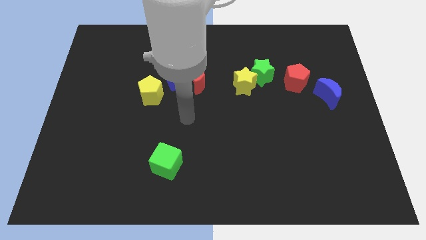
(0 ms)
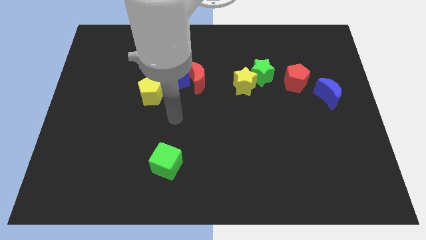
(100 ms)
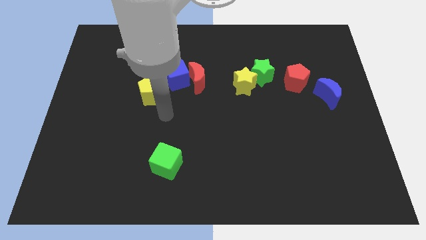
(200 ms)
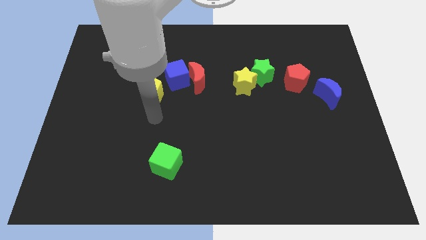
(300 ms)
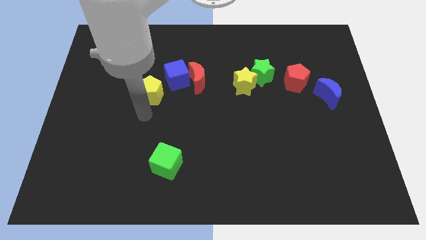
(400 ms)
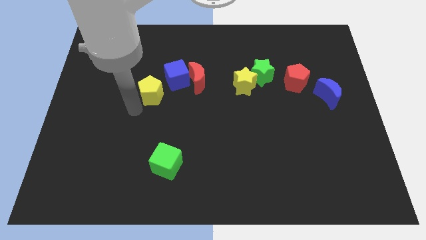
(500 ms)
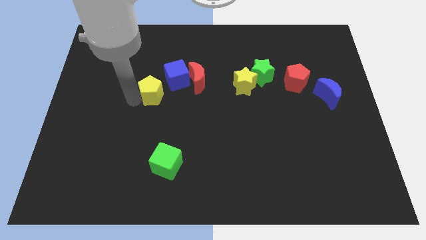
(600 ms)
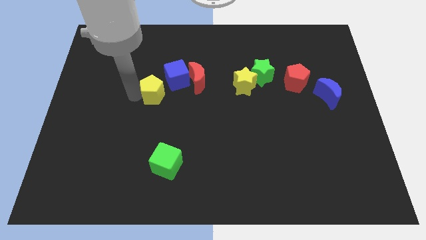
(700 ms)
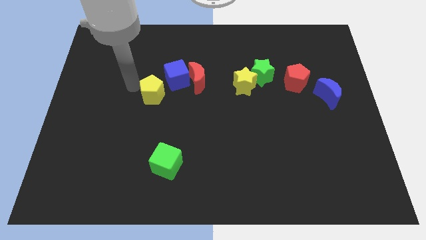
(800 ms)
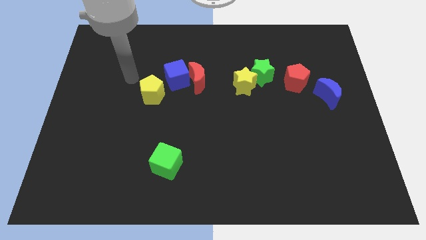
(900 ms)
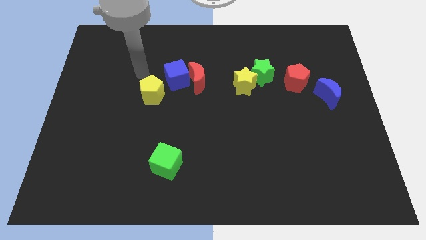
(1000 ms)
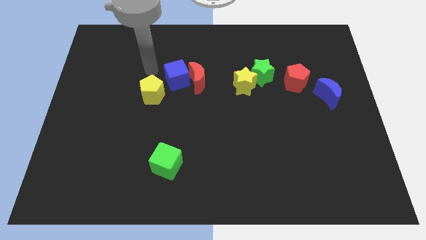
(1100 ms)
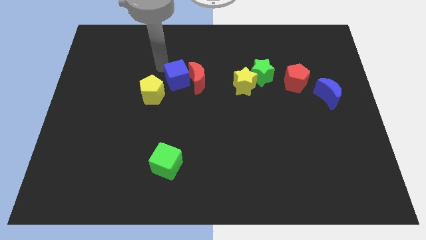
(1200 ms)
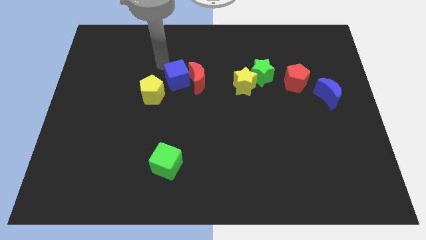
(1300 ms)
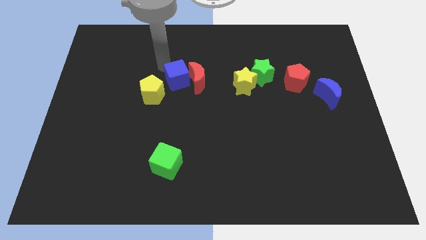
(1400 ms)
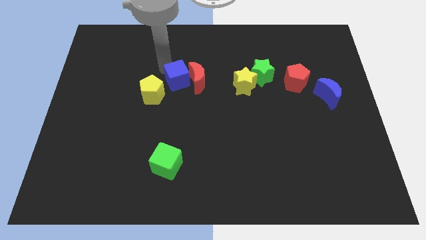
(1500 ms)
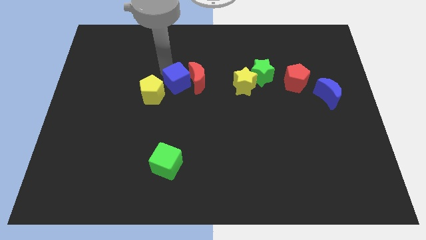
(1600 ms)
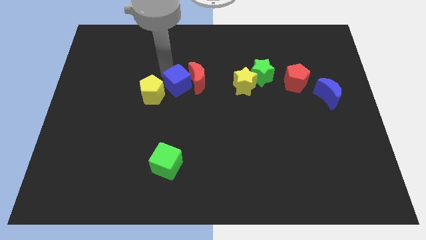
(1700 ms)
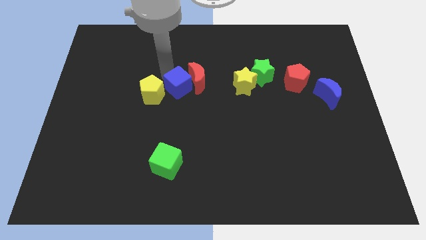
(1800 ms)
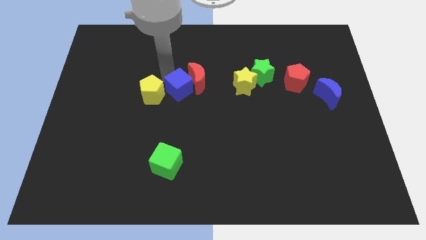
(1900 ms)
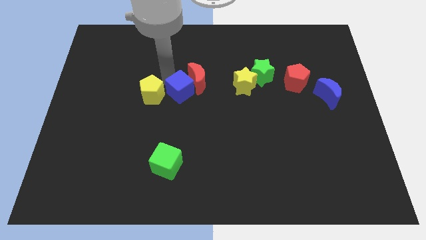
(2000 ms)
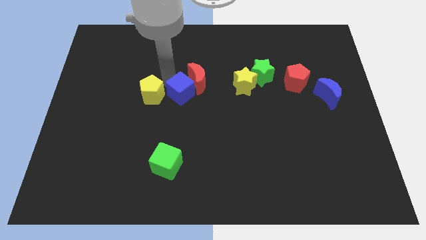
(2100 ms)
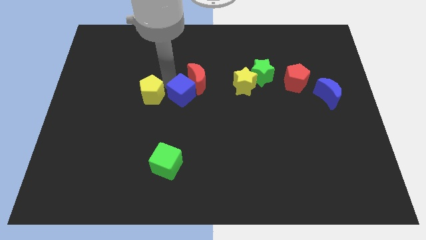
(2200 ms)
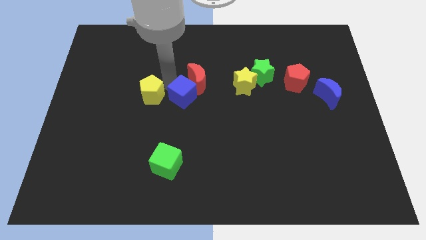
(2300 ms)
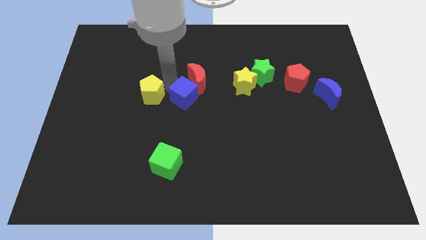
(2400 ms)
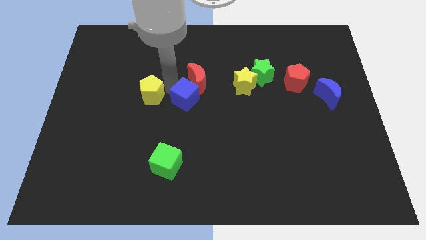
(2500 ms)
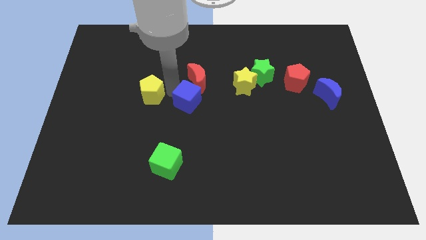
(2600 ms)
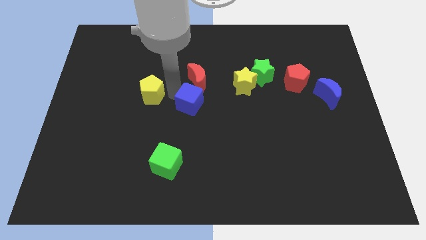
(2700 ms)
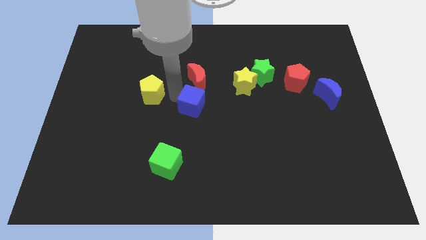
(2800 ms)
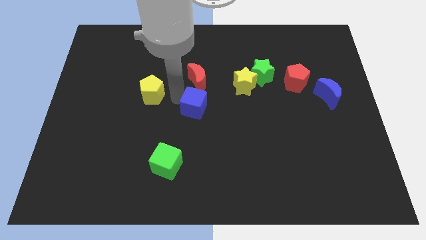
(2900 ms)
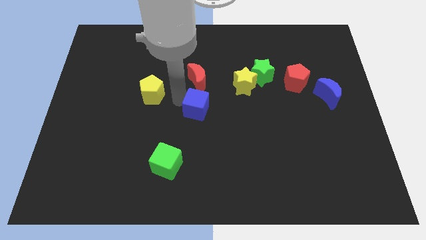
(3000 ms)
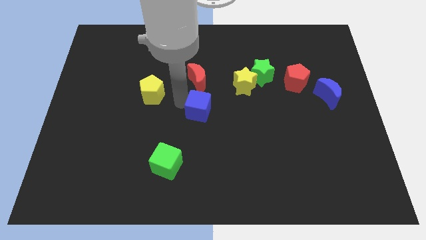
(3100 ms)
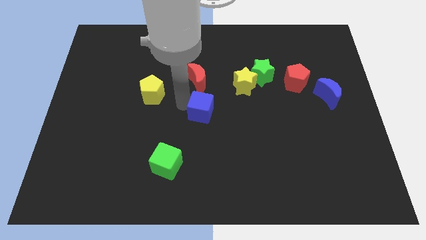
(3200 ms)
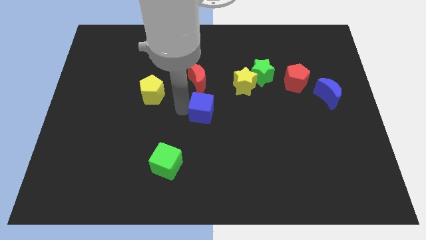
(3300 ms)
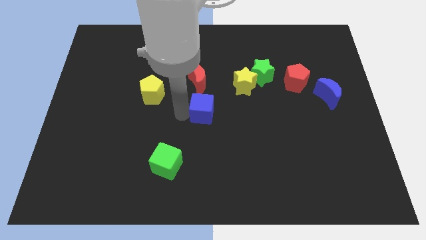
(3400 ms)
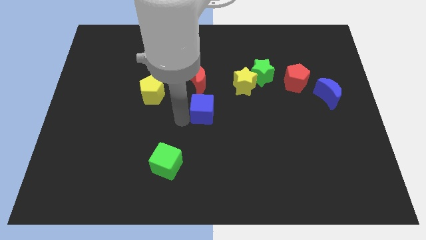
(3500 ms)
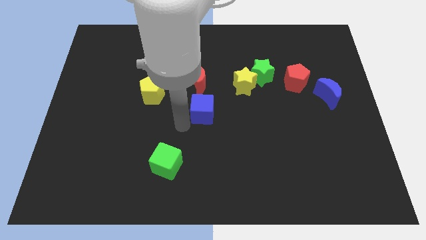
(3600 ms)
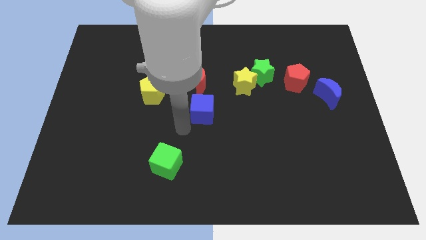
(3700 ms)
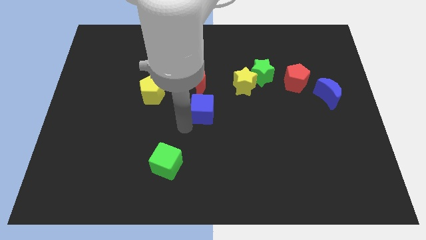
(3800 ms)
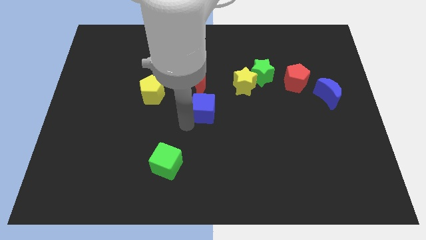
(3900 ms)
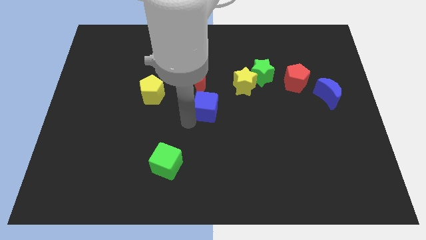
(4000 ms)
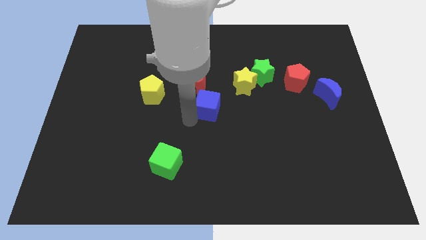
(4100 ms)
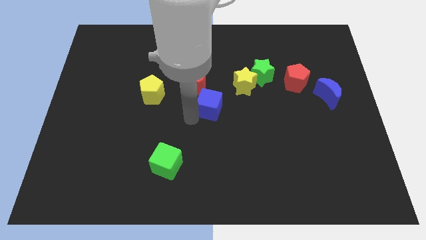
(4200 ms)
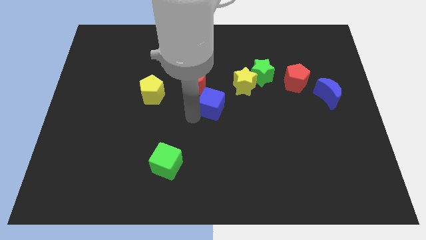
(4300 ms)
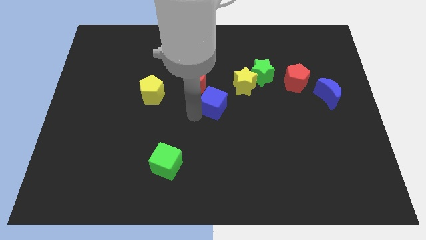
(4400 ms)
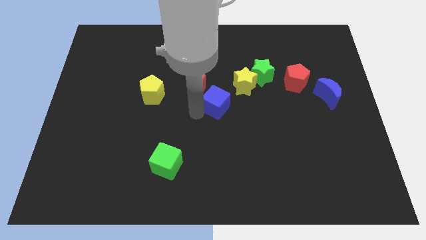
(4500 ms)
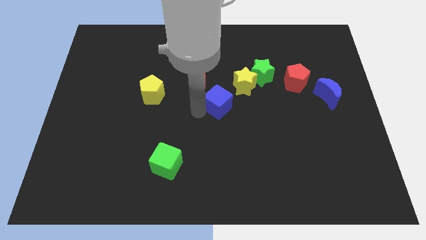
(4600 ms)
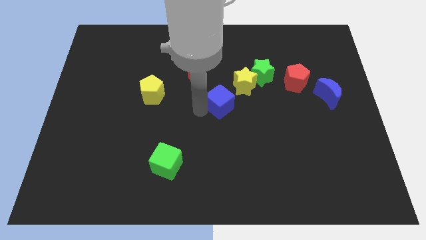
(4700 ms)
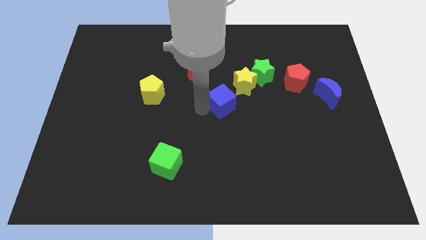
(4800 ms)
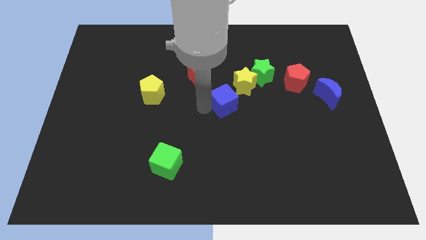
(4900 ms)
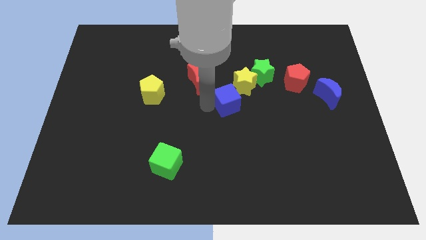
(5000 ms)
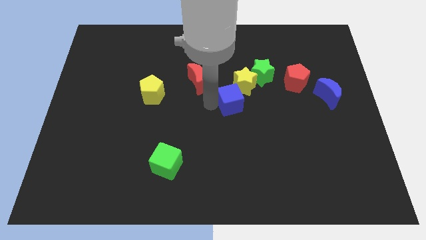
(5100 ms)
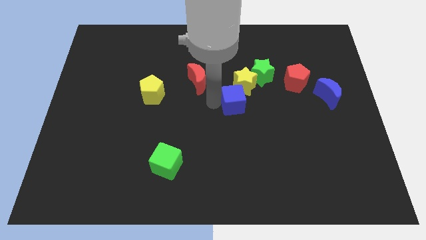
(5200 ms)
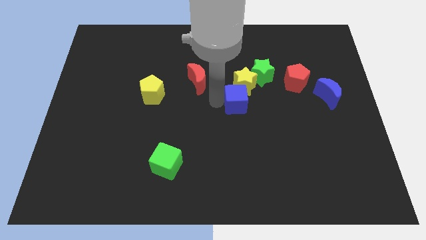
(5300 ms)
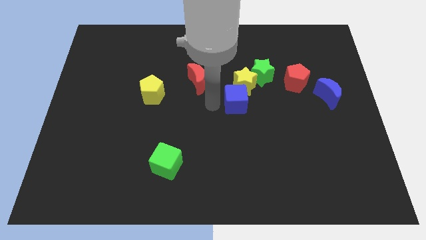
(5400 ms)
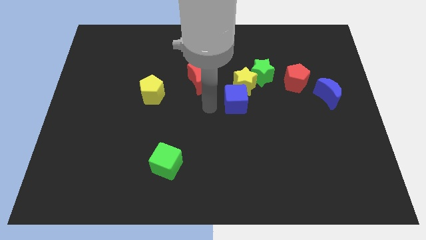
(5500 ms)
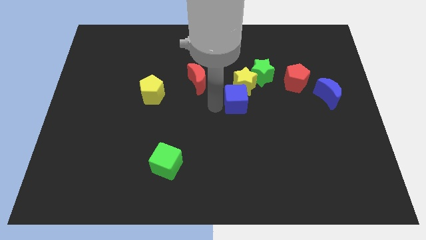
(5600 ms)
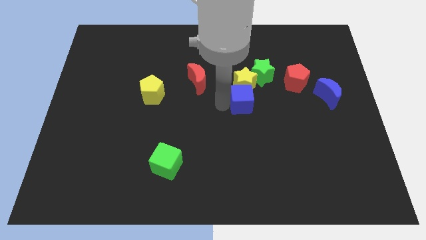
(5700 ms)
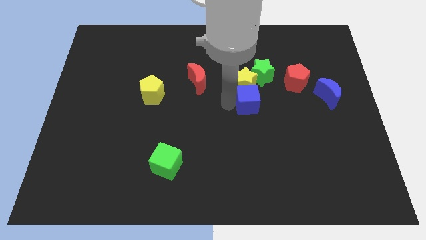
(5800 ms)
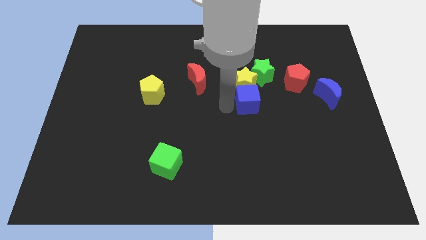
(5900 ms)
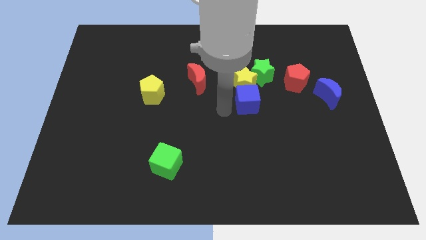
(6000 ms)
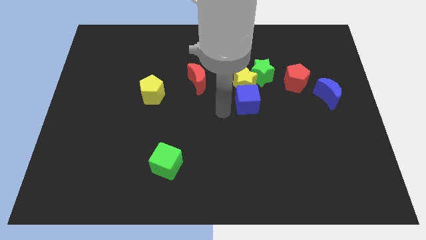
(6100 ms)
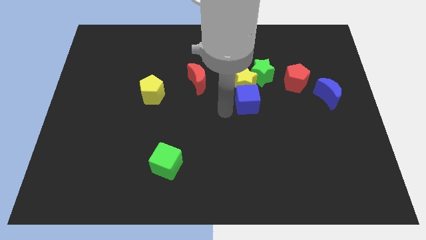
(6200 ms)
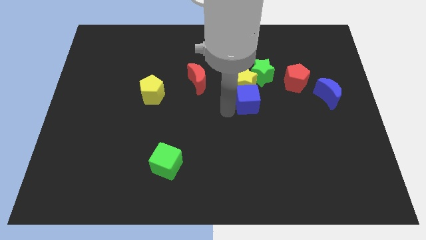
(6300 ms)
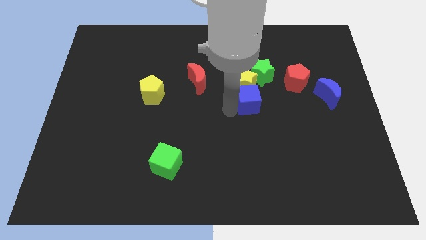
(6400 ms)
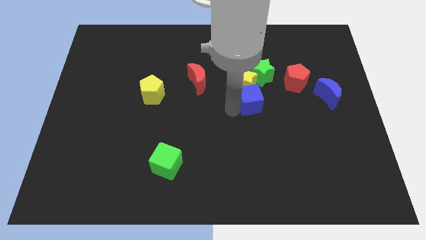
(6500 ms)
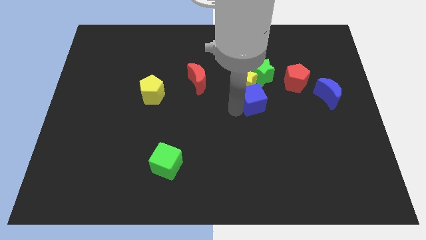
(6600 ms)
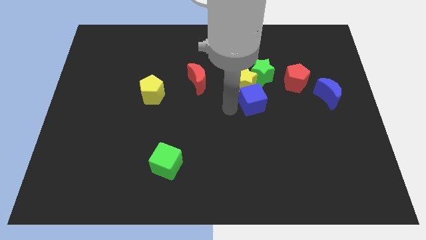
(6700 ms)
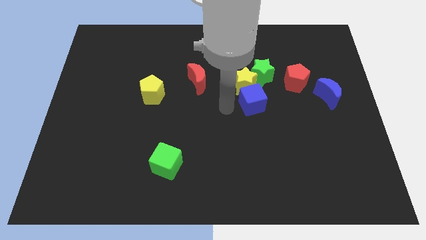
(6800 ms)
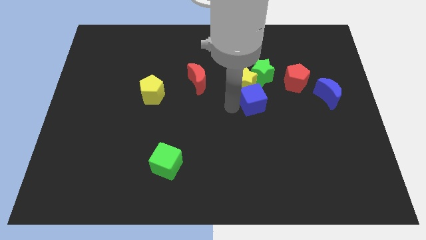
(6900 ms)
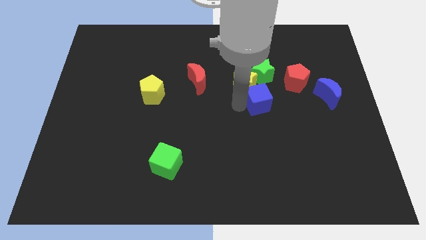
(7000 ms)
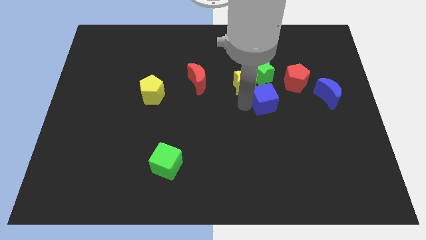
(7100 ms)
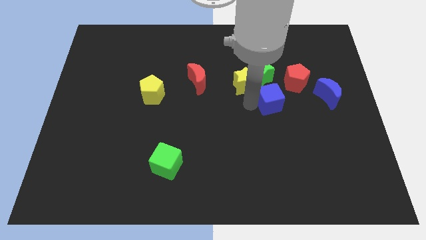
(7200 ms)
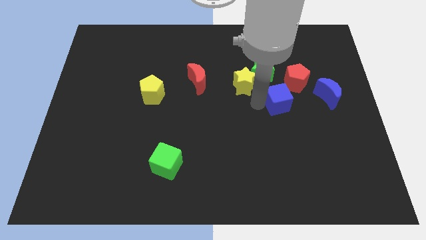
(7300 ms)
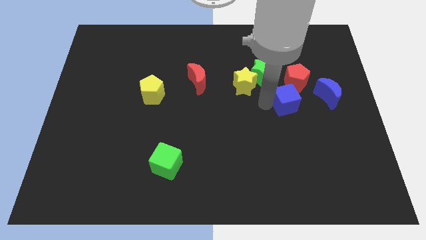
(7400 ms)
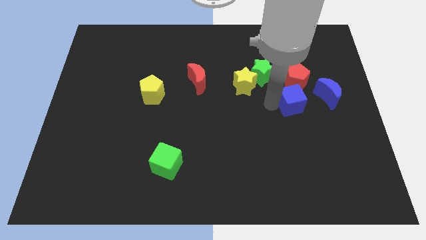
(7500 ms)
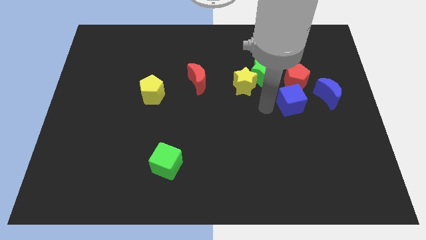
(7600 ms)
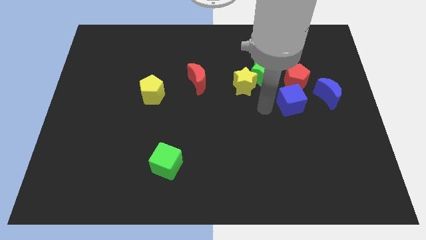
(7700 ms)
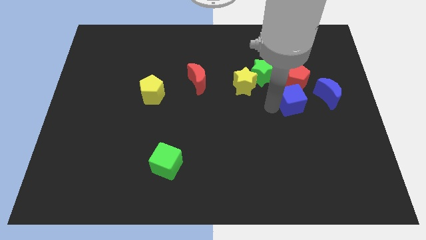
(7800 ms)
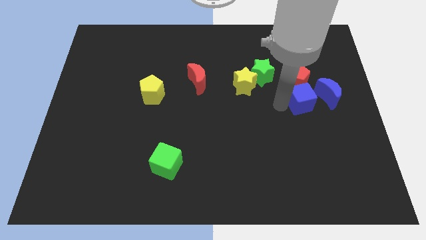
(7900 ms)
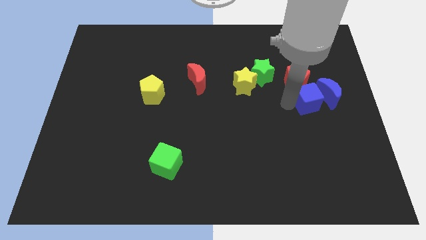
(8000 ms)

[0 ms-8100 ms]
push the blue cube close to the blue moon
